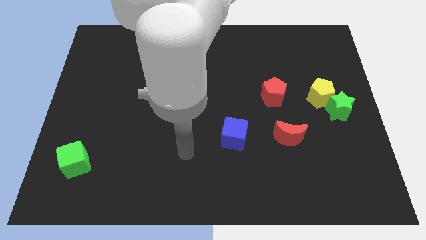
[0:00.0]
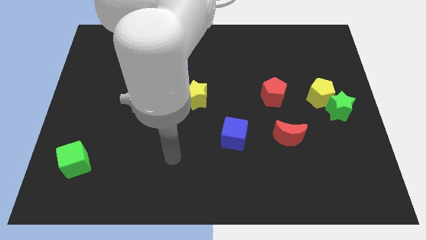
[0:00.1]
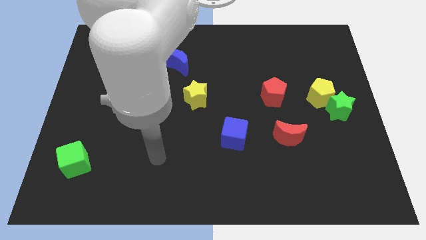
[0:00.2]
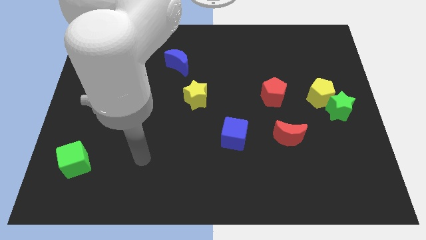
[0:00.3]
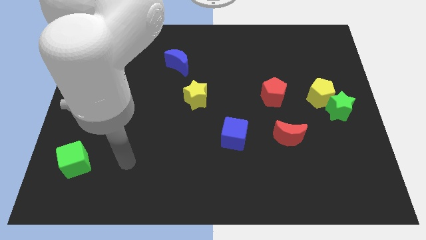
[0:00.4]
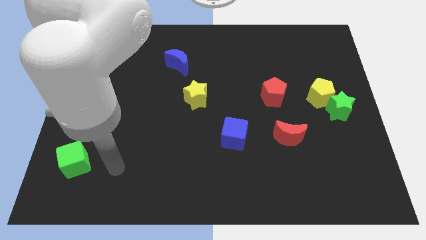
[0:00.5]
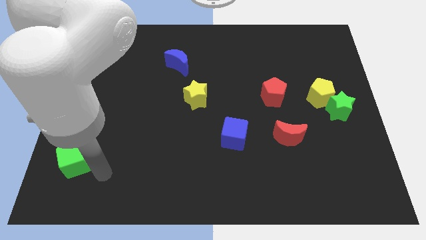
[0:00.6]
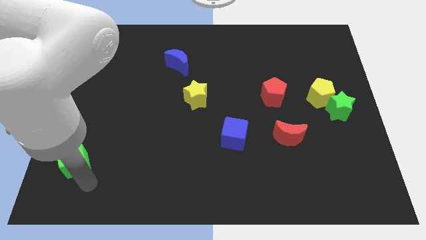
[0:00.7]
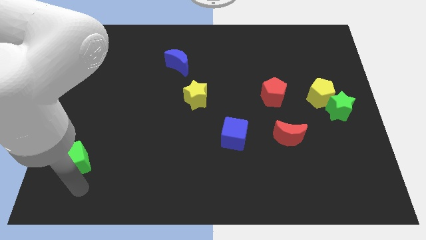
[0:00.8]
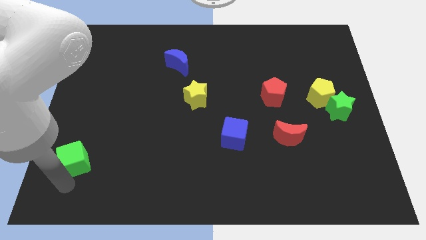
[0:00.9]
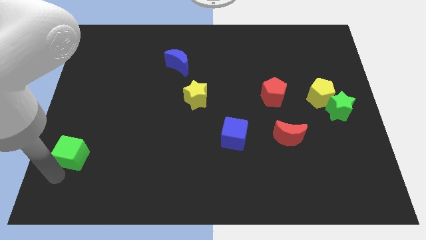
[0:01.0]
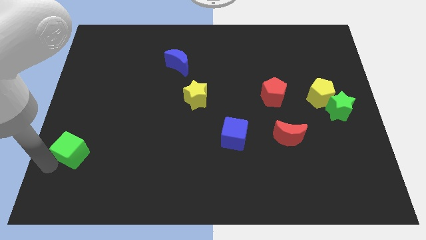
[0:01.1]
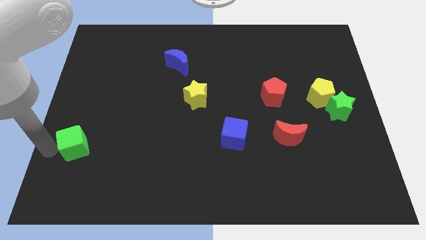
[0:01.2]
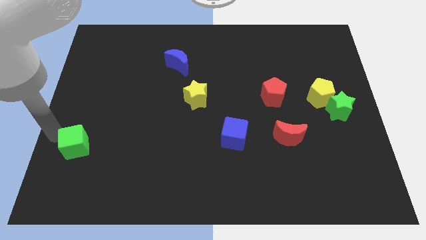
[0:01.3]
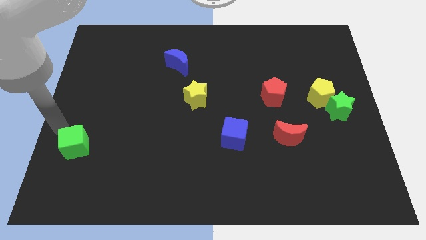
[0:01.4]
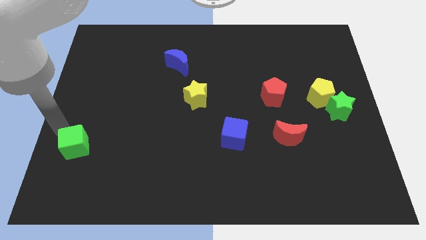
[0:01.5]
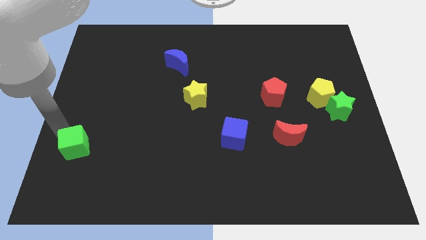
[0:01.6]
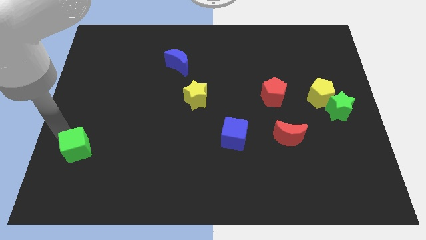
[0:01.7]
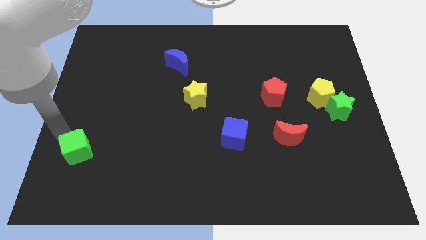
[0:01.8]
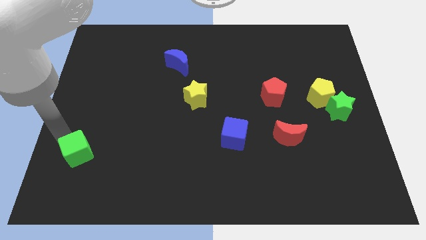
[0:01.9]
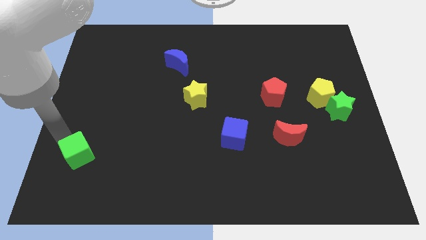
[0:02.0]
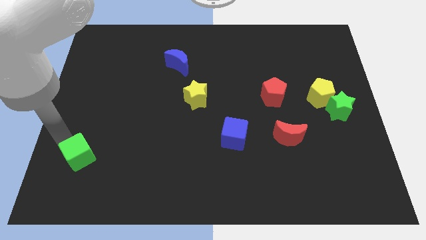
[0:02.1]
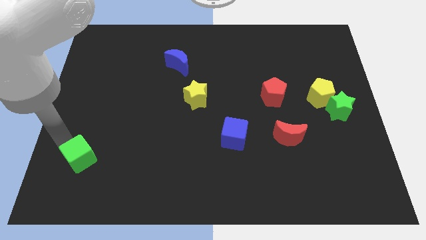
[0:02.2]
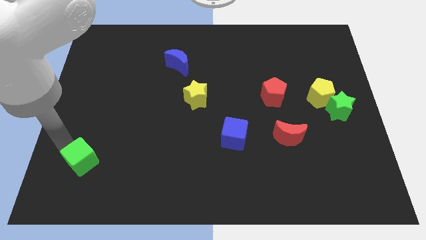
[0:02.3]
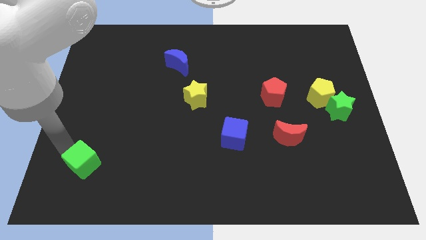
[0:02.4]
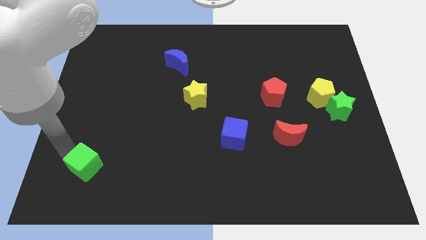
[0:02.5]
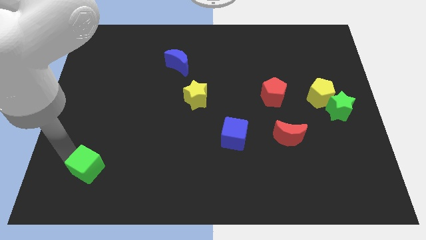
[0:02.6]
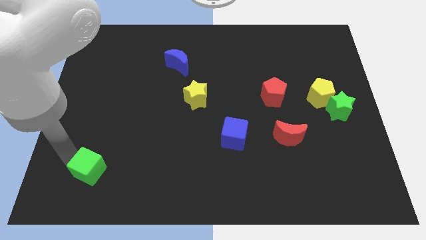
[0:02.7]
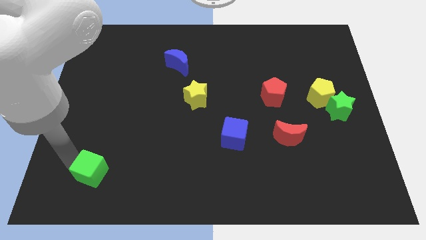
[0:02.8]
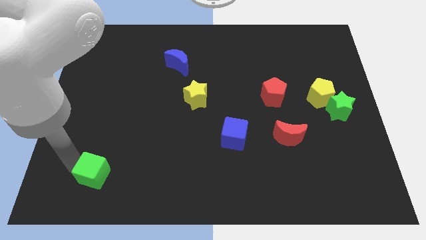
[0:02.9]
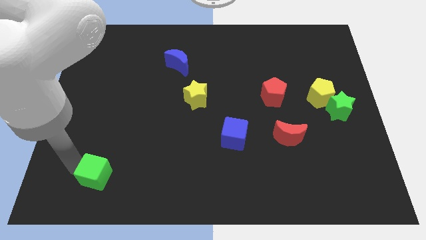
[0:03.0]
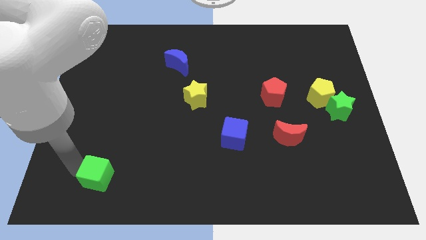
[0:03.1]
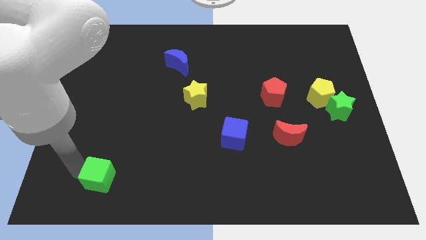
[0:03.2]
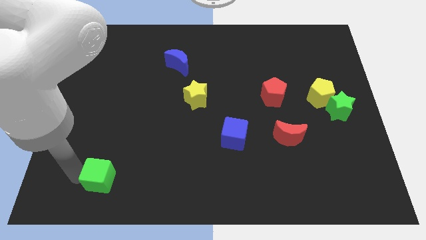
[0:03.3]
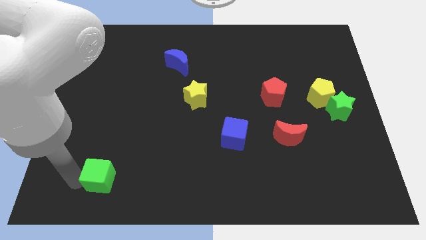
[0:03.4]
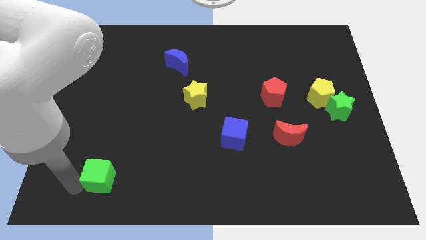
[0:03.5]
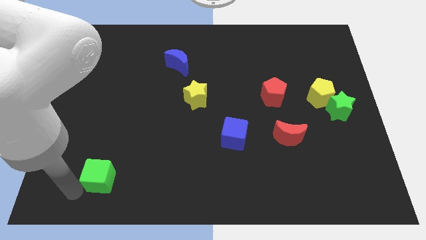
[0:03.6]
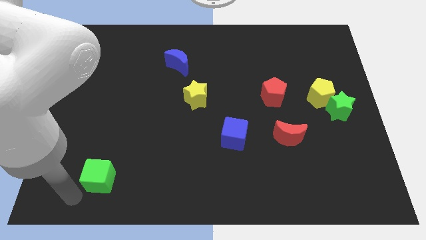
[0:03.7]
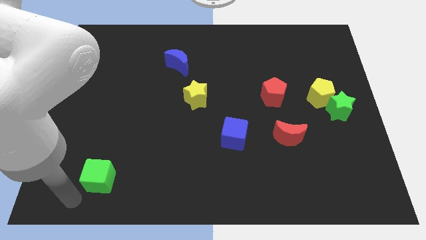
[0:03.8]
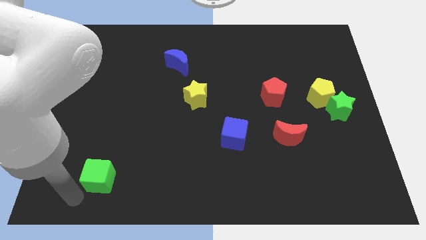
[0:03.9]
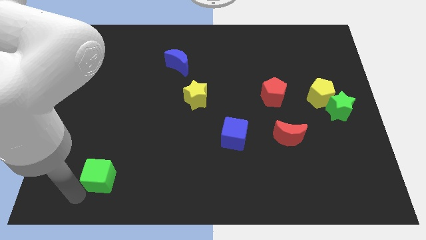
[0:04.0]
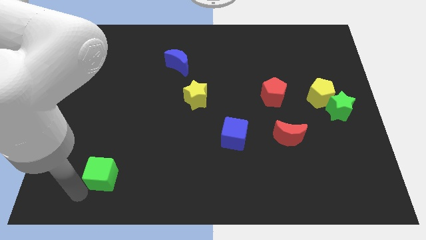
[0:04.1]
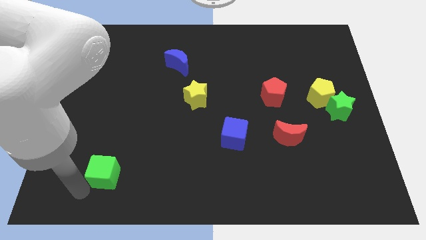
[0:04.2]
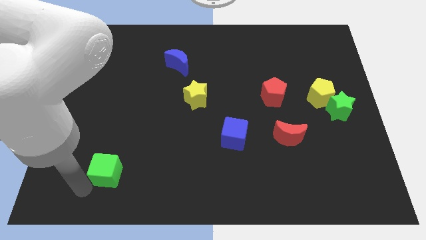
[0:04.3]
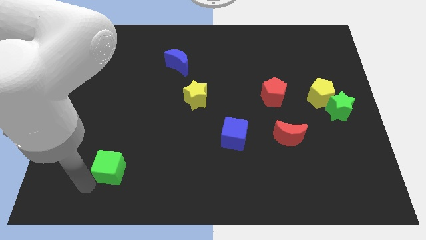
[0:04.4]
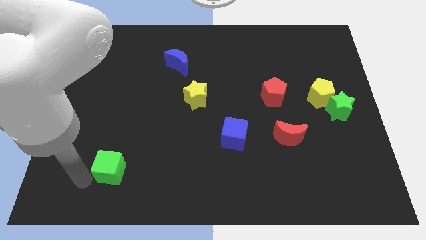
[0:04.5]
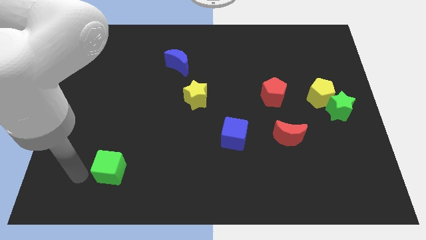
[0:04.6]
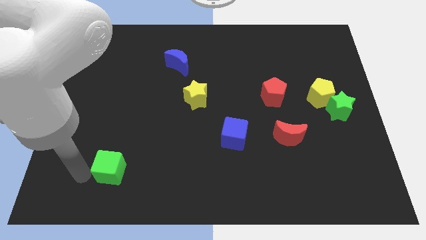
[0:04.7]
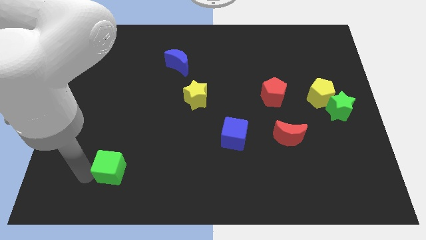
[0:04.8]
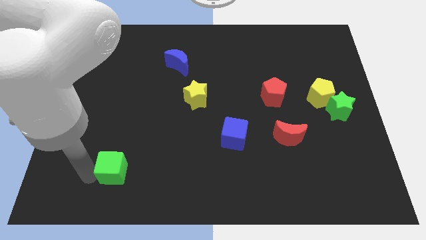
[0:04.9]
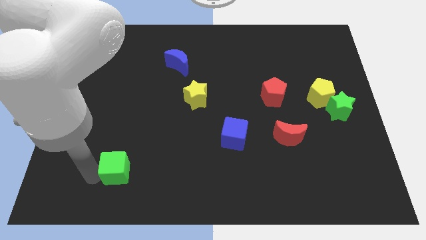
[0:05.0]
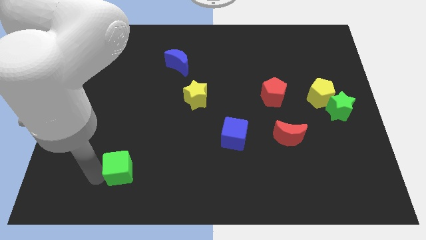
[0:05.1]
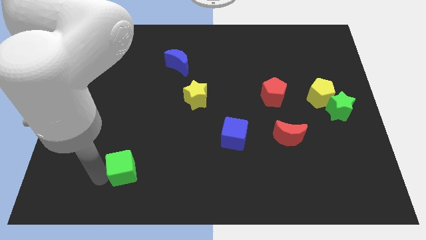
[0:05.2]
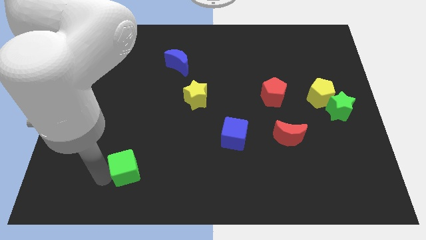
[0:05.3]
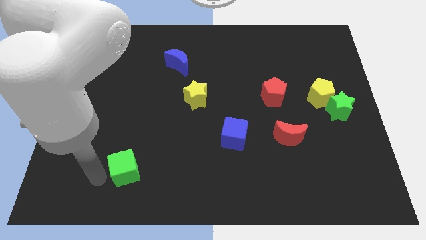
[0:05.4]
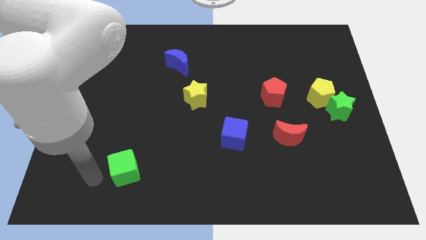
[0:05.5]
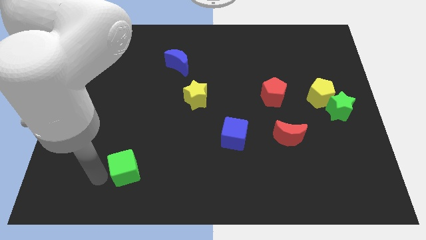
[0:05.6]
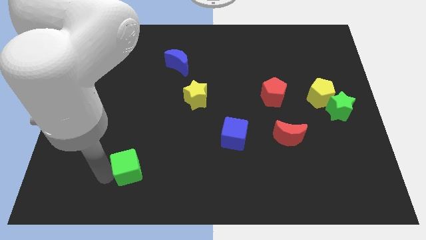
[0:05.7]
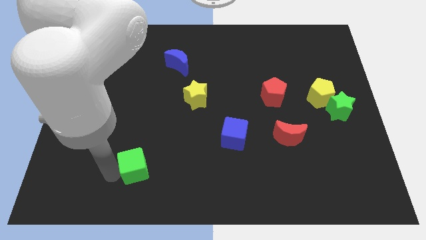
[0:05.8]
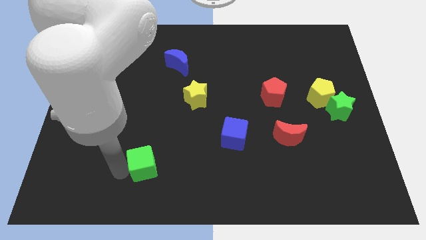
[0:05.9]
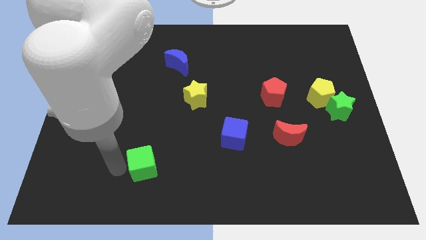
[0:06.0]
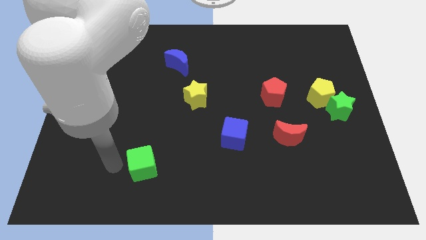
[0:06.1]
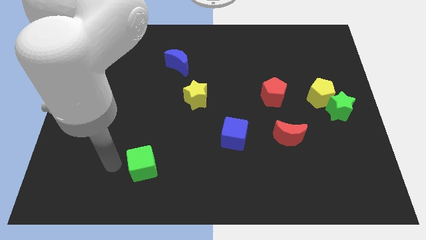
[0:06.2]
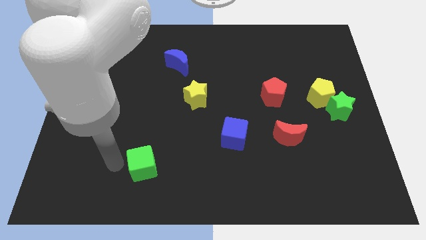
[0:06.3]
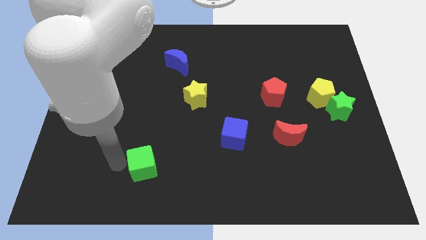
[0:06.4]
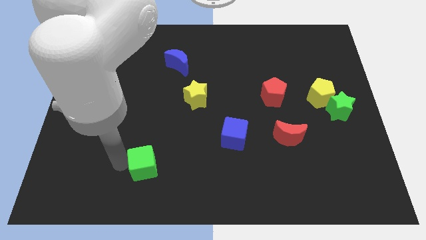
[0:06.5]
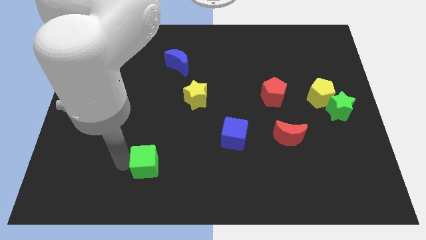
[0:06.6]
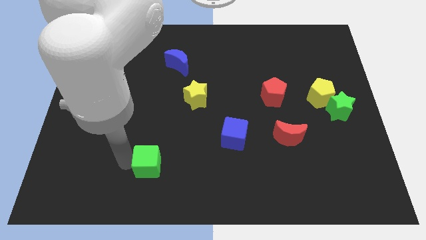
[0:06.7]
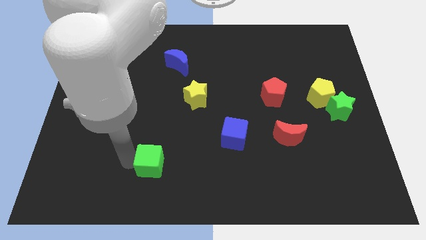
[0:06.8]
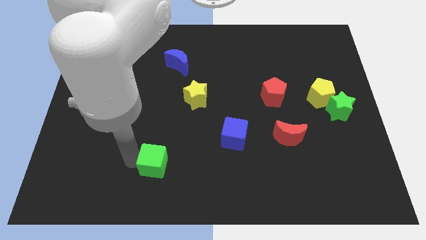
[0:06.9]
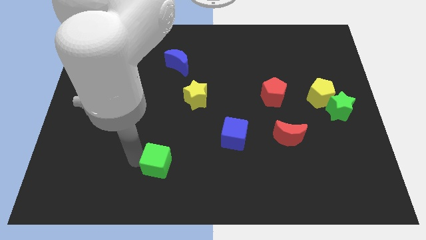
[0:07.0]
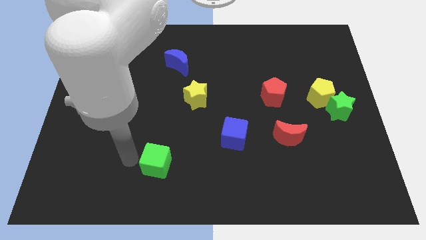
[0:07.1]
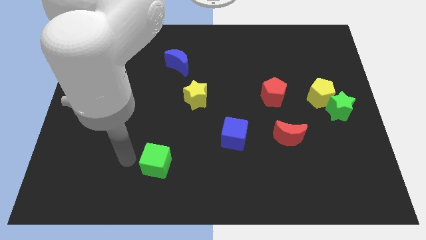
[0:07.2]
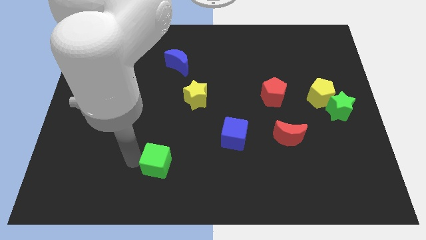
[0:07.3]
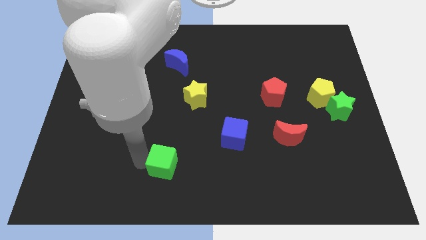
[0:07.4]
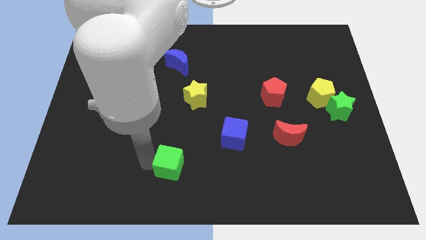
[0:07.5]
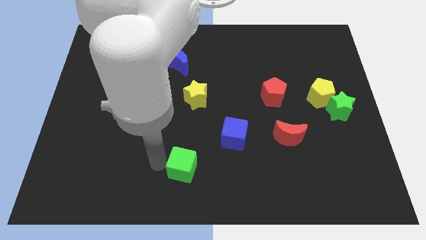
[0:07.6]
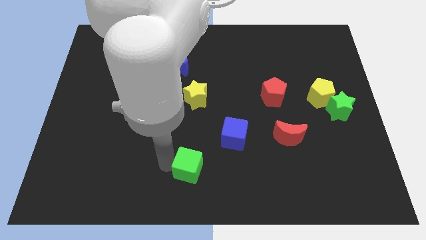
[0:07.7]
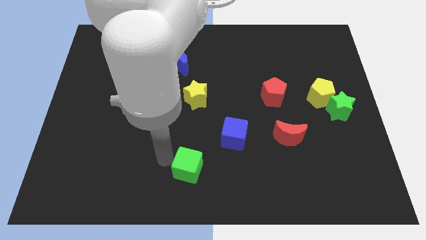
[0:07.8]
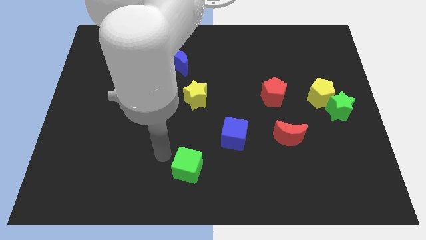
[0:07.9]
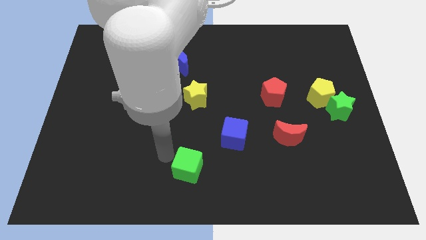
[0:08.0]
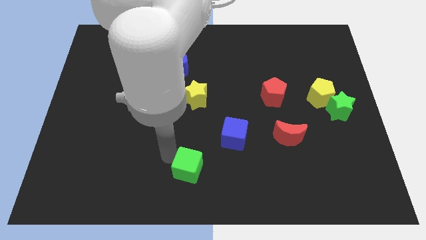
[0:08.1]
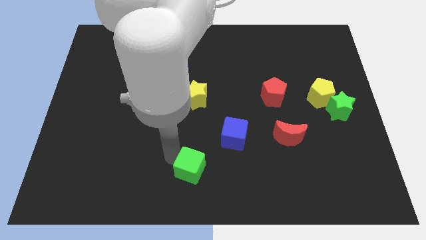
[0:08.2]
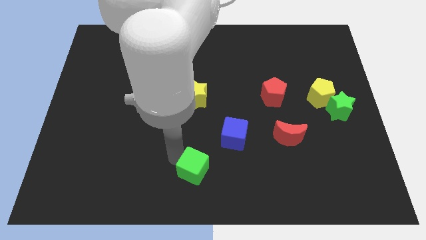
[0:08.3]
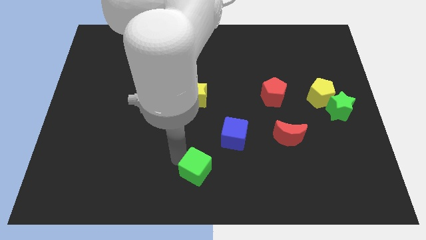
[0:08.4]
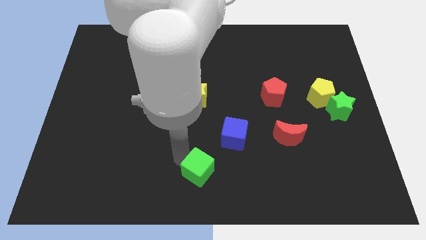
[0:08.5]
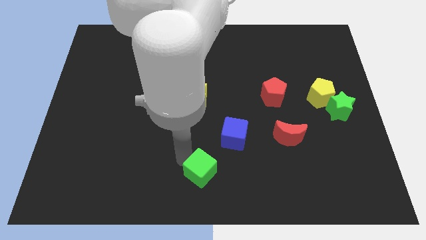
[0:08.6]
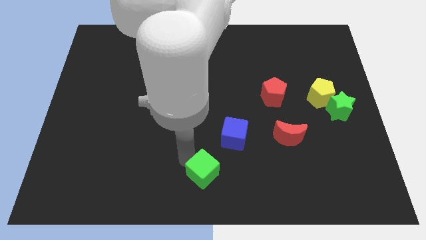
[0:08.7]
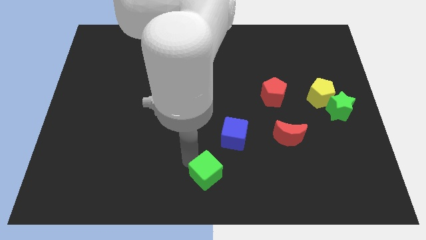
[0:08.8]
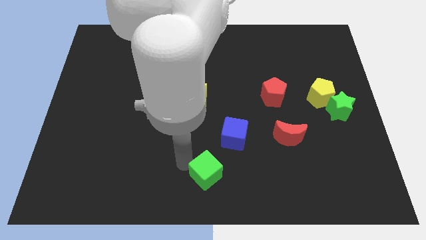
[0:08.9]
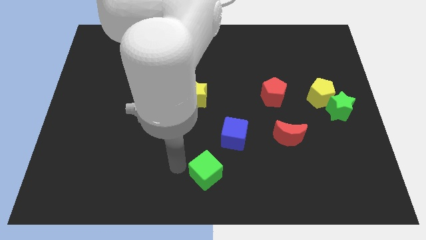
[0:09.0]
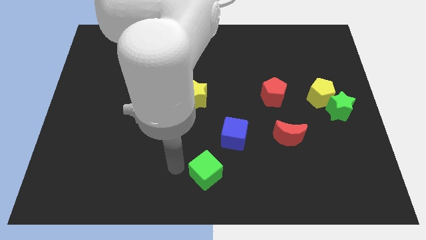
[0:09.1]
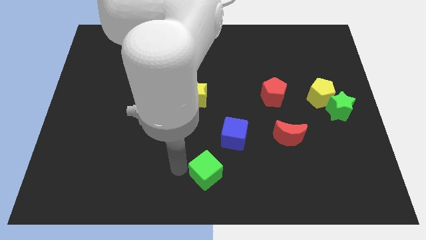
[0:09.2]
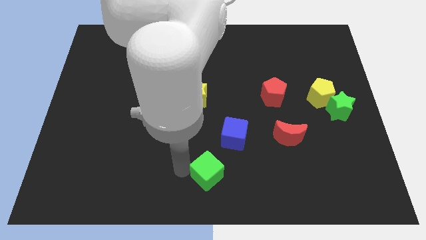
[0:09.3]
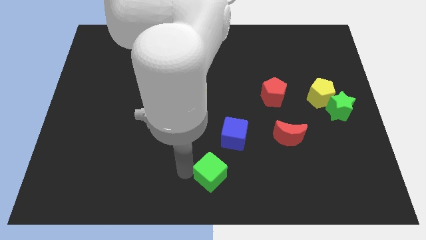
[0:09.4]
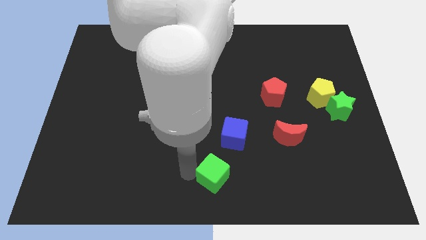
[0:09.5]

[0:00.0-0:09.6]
move the green cube to the bottom side of the blue cube
